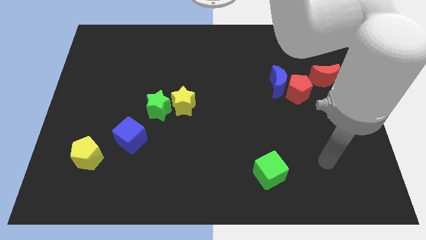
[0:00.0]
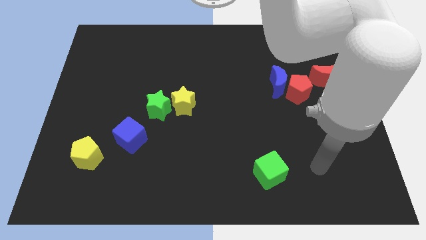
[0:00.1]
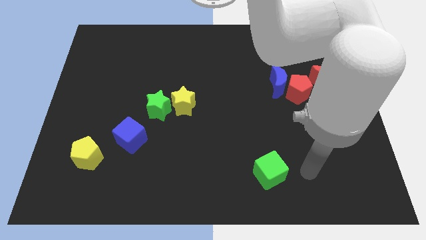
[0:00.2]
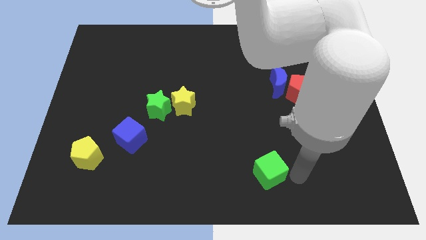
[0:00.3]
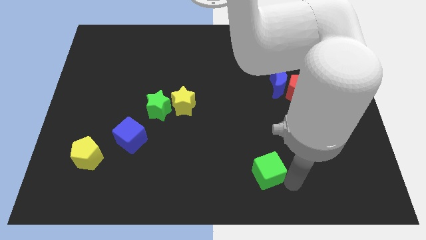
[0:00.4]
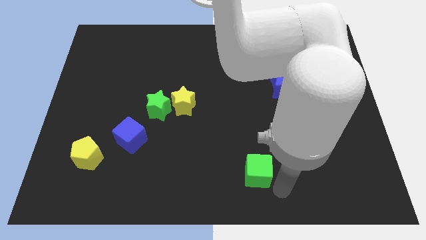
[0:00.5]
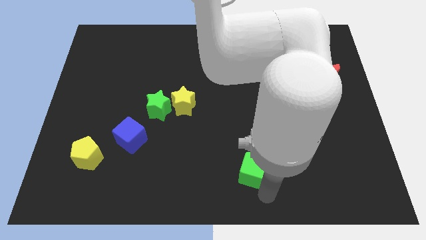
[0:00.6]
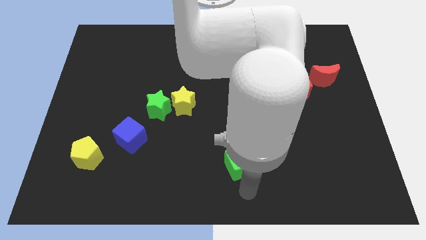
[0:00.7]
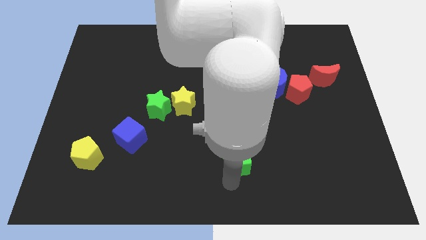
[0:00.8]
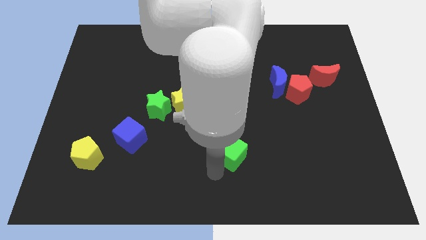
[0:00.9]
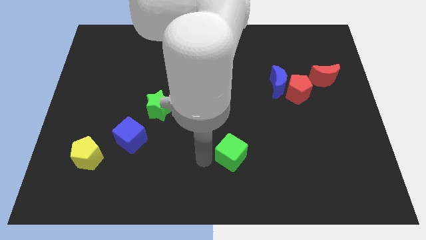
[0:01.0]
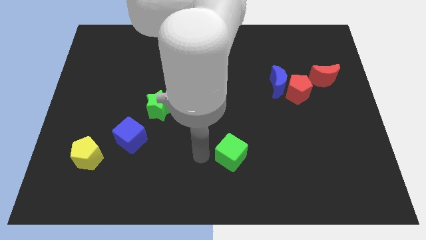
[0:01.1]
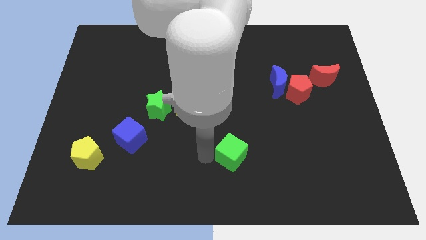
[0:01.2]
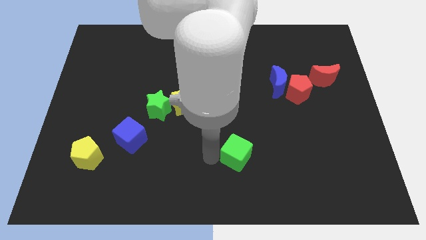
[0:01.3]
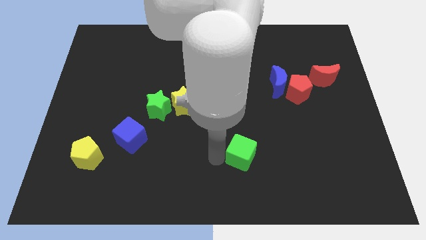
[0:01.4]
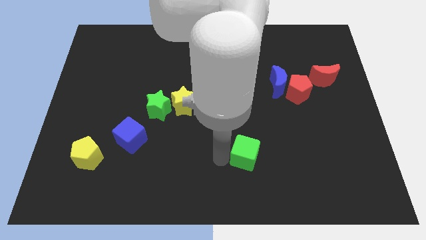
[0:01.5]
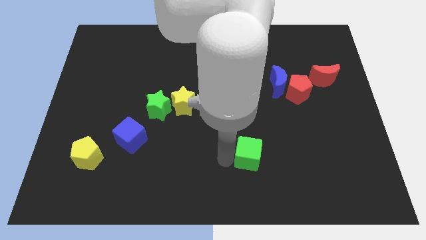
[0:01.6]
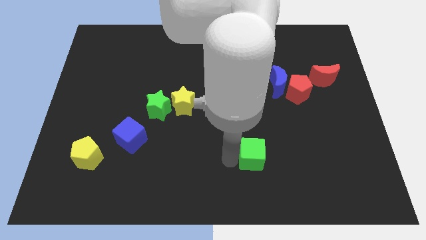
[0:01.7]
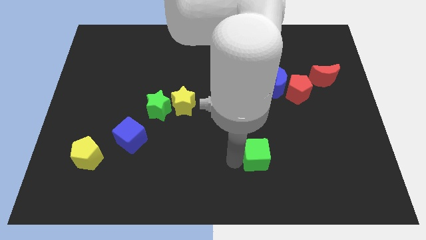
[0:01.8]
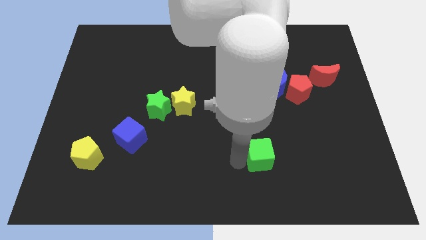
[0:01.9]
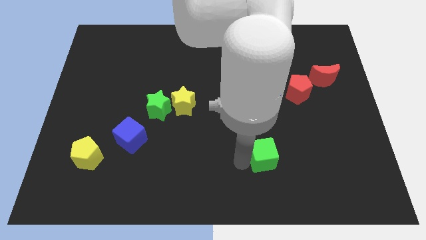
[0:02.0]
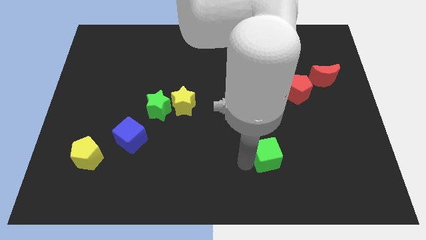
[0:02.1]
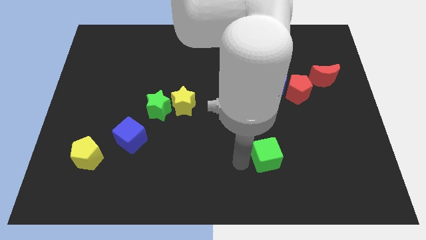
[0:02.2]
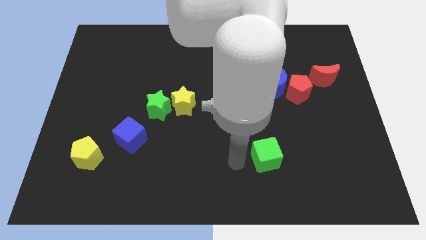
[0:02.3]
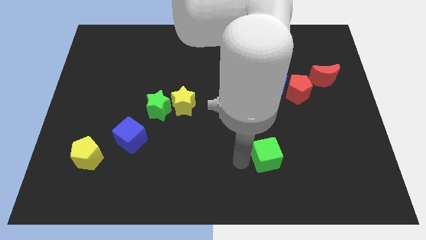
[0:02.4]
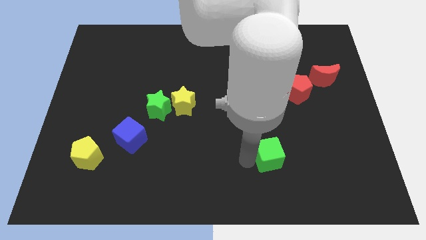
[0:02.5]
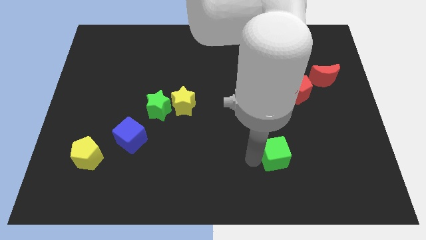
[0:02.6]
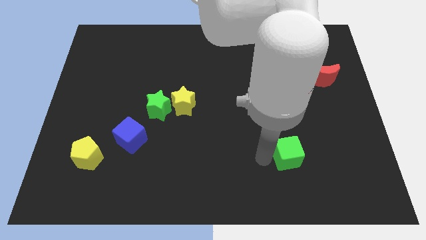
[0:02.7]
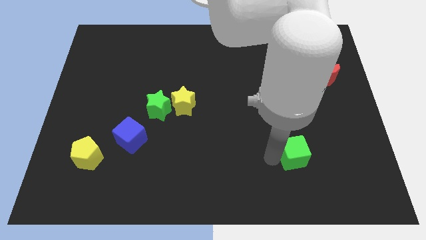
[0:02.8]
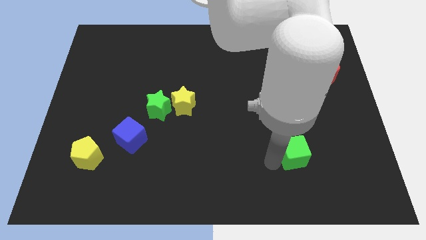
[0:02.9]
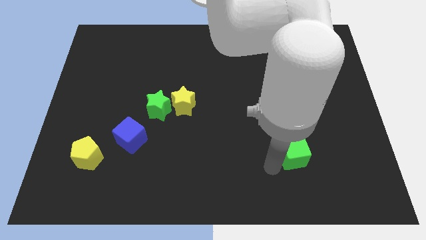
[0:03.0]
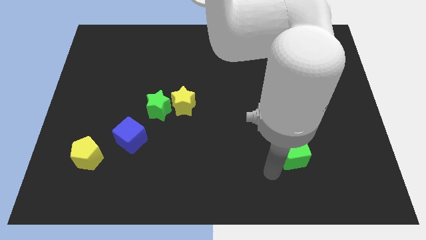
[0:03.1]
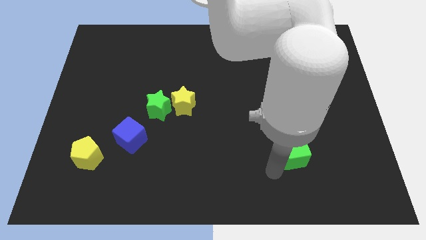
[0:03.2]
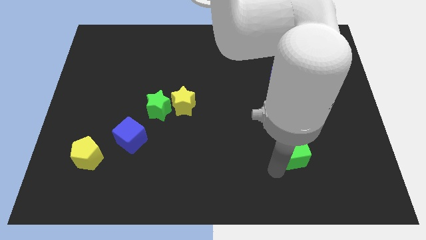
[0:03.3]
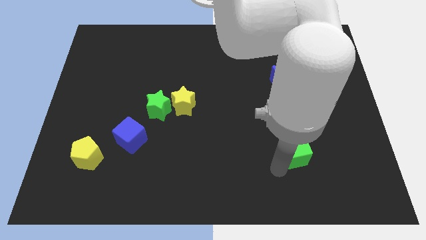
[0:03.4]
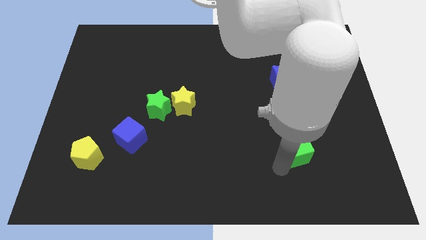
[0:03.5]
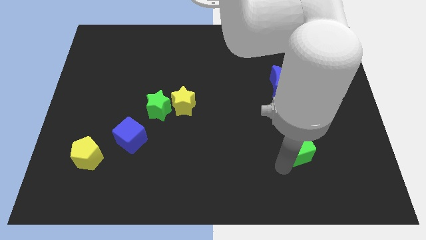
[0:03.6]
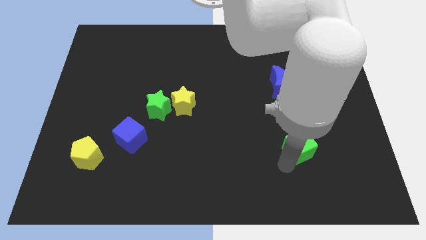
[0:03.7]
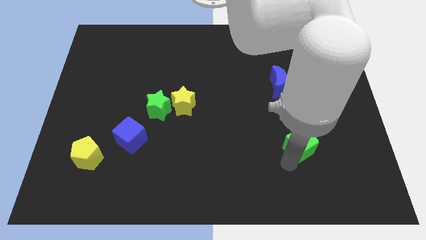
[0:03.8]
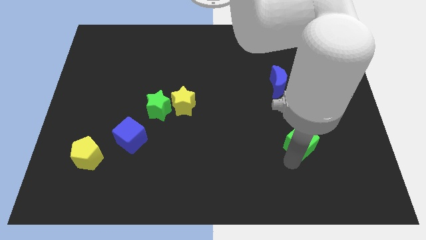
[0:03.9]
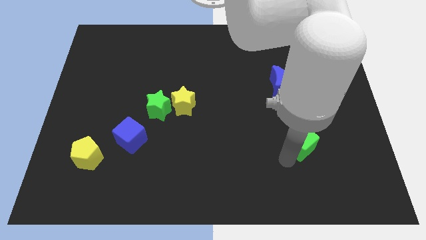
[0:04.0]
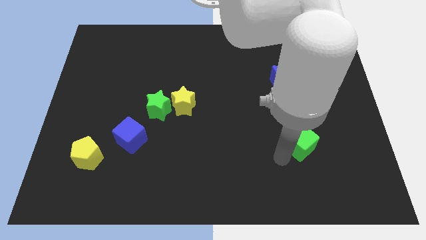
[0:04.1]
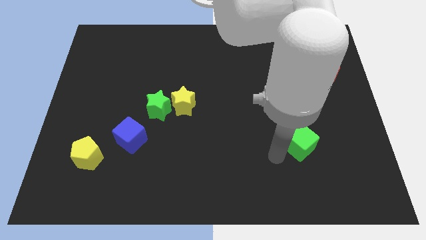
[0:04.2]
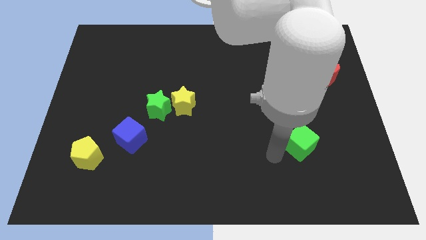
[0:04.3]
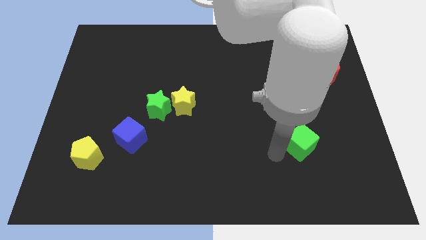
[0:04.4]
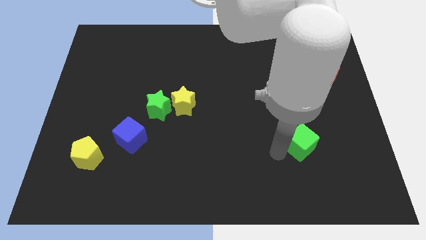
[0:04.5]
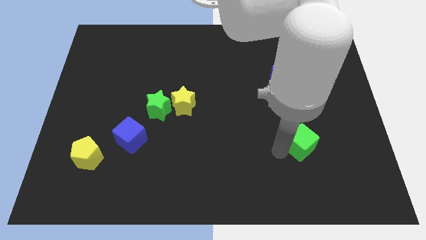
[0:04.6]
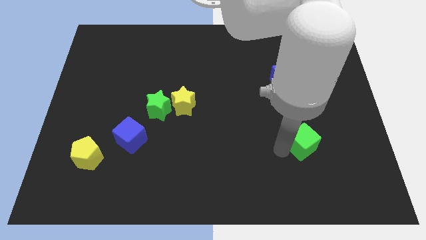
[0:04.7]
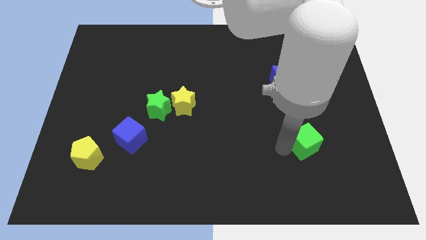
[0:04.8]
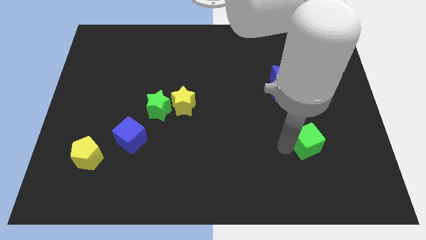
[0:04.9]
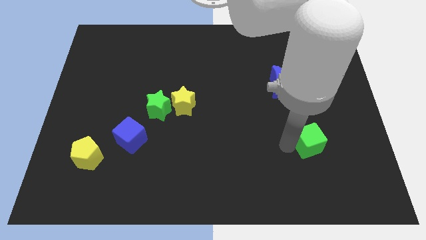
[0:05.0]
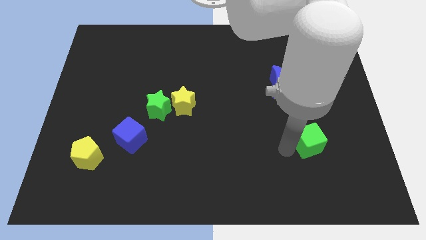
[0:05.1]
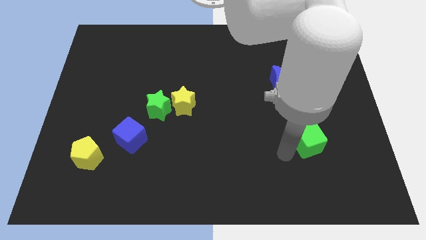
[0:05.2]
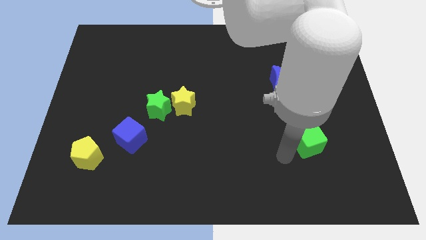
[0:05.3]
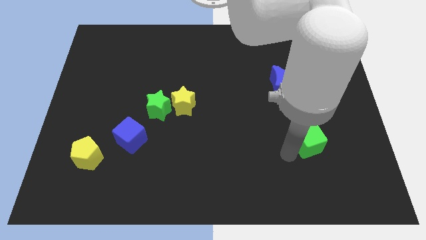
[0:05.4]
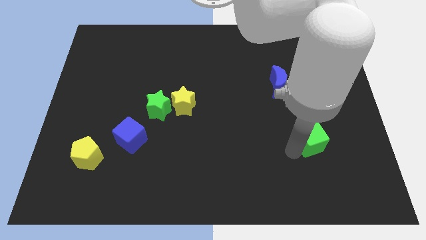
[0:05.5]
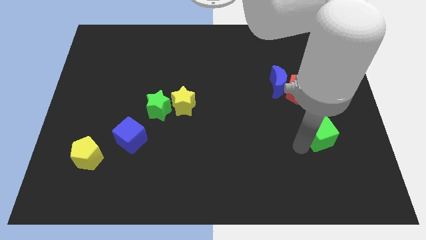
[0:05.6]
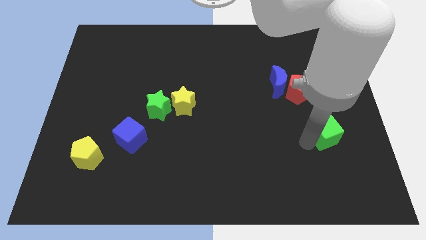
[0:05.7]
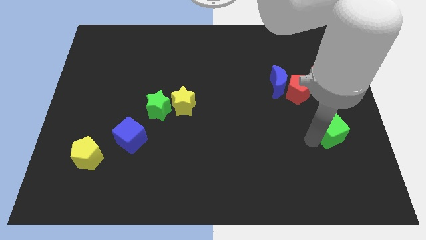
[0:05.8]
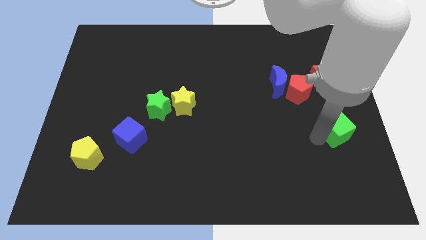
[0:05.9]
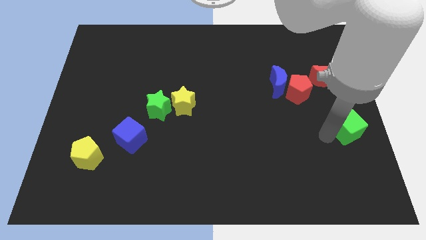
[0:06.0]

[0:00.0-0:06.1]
put the green cube to the right side

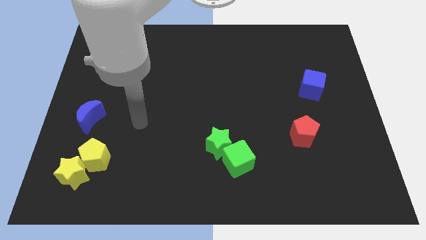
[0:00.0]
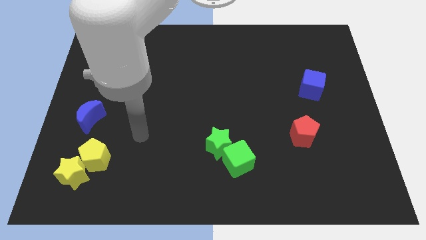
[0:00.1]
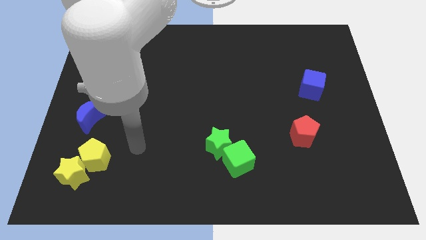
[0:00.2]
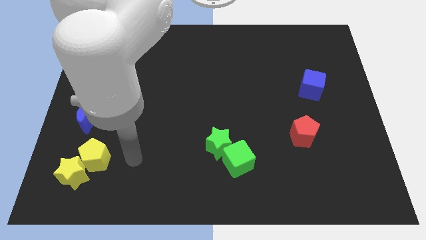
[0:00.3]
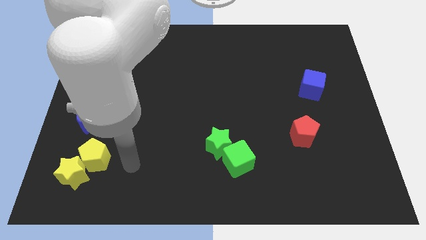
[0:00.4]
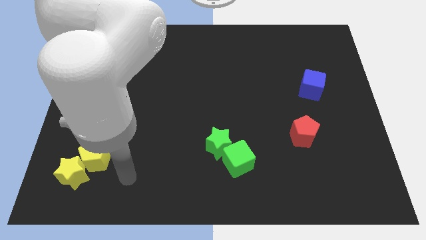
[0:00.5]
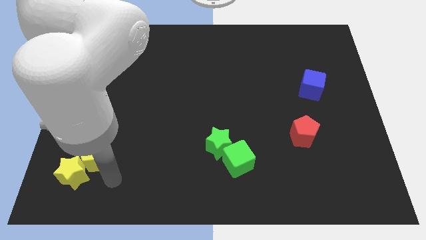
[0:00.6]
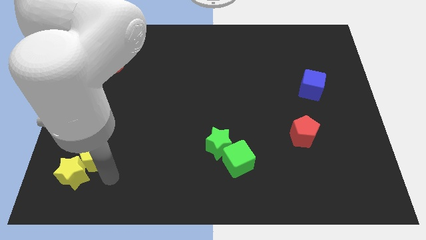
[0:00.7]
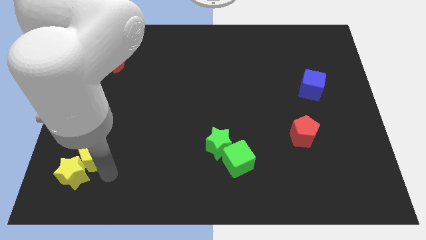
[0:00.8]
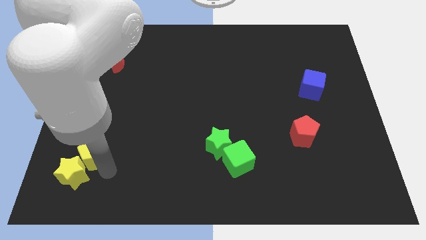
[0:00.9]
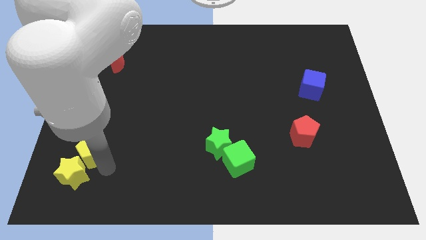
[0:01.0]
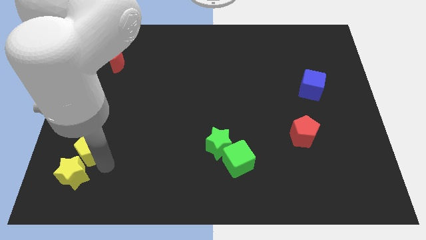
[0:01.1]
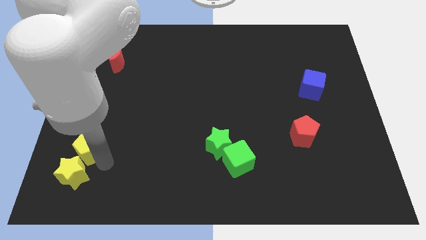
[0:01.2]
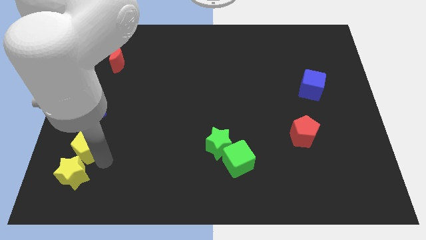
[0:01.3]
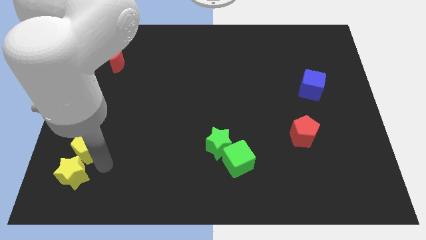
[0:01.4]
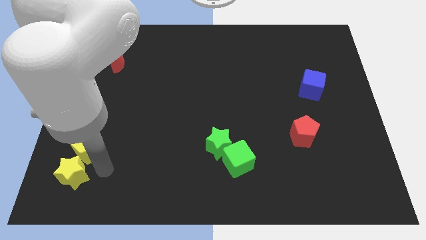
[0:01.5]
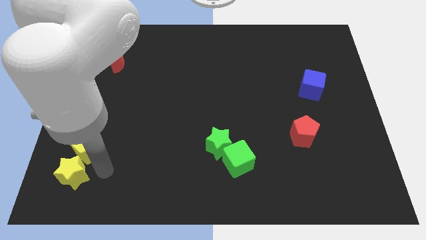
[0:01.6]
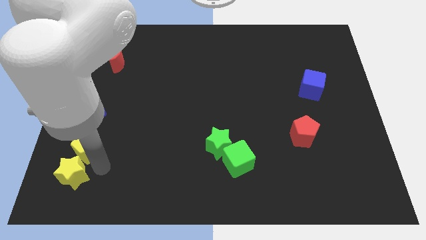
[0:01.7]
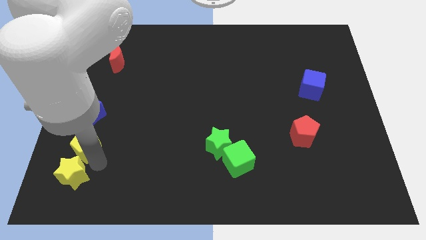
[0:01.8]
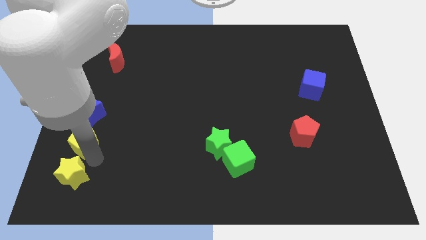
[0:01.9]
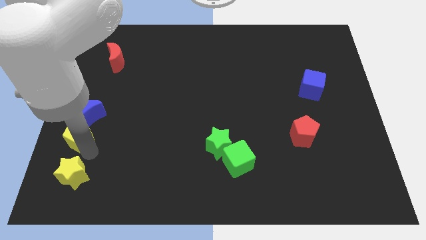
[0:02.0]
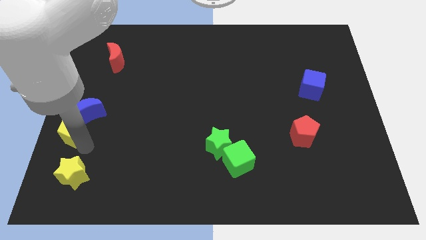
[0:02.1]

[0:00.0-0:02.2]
push the yellow pentagon to the center left
